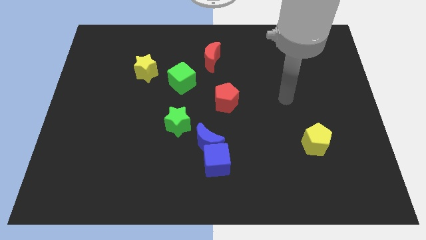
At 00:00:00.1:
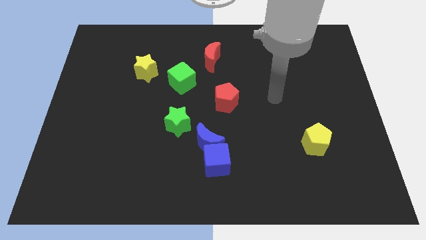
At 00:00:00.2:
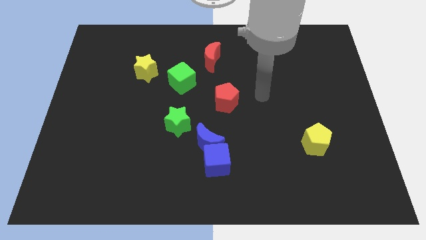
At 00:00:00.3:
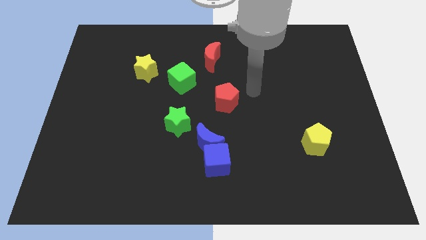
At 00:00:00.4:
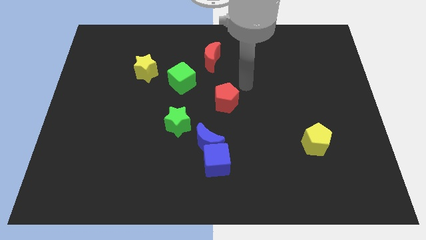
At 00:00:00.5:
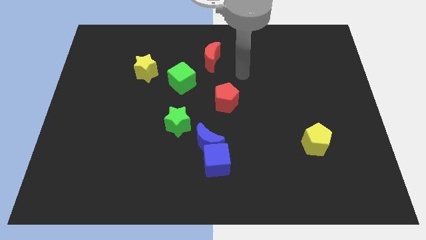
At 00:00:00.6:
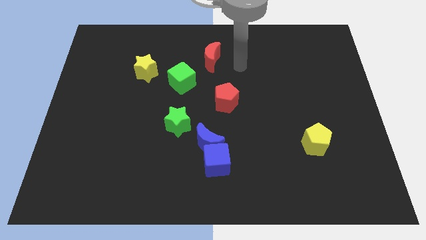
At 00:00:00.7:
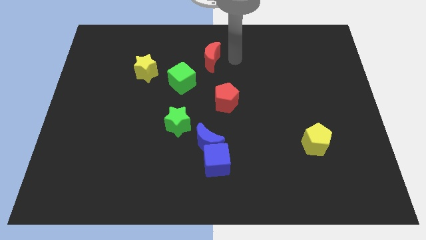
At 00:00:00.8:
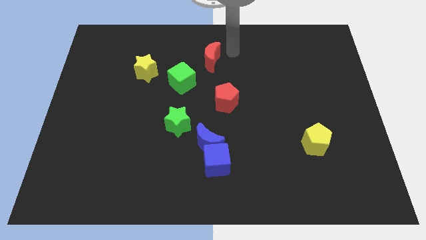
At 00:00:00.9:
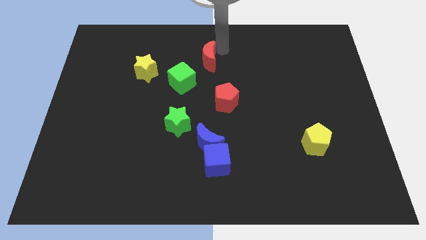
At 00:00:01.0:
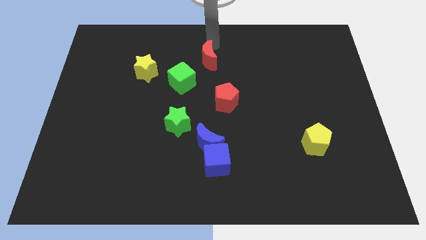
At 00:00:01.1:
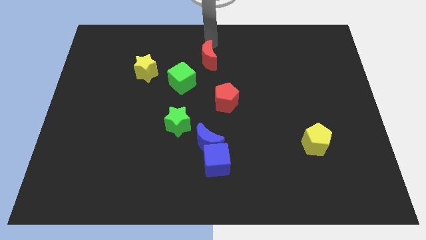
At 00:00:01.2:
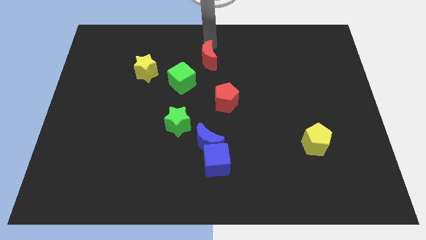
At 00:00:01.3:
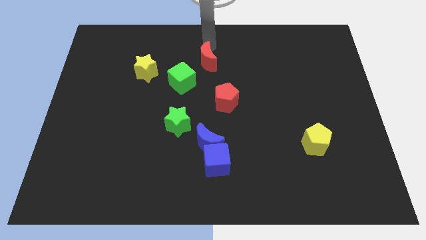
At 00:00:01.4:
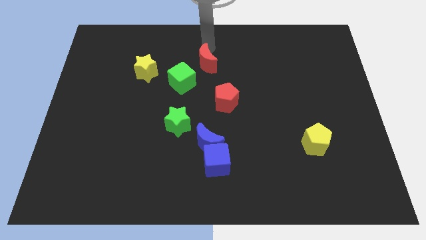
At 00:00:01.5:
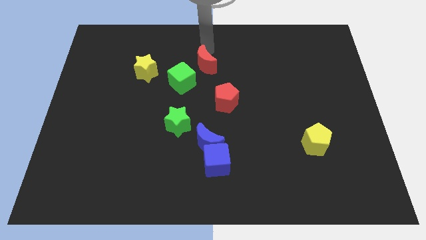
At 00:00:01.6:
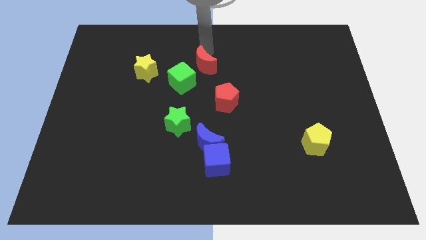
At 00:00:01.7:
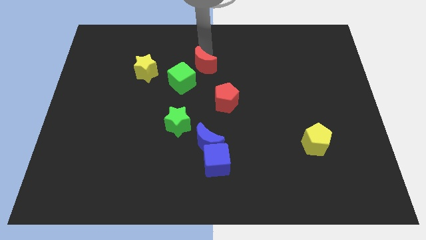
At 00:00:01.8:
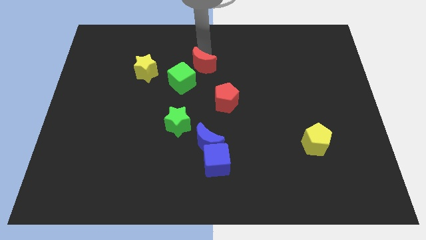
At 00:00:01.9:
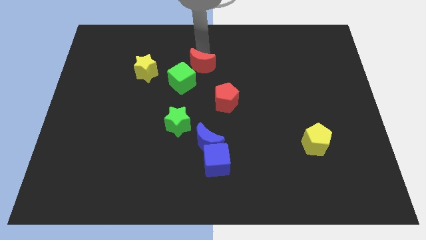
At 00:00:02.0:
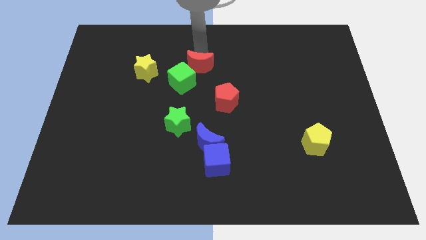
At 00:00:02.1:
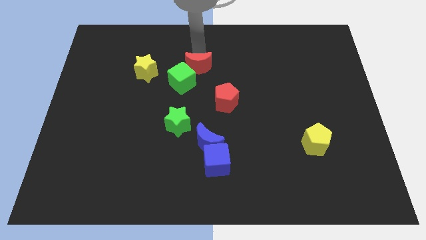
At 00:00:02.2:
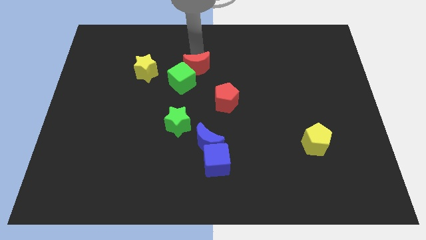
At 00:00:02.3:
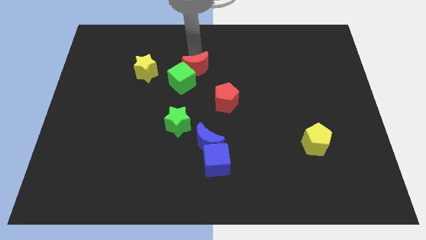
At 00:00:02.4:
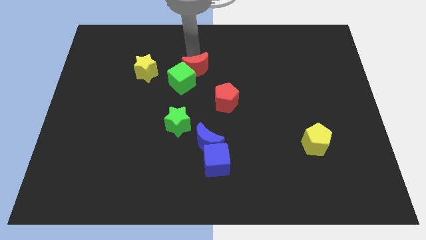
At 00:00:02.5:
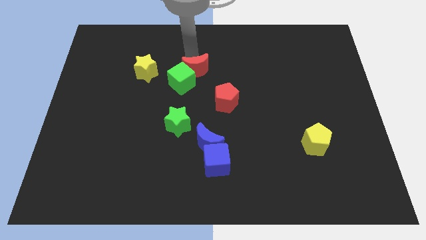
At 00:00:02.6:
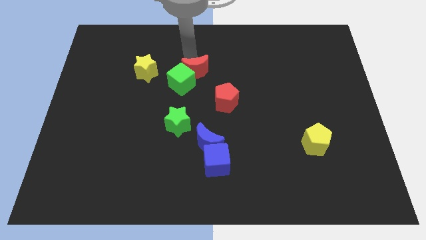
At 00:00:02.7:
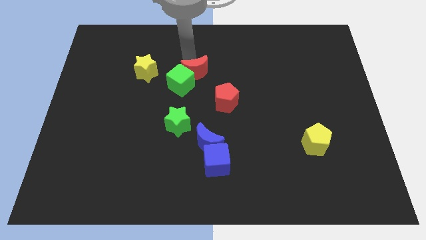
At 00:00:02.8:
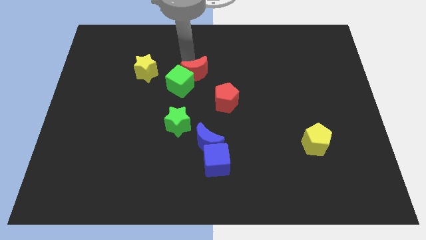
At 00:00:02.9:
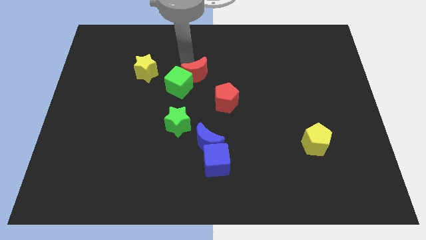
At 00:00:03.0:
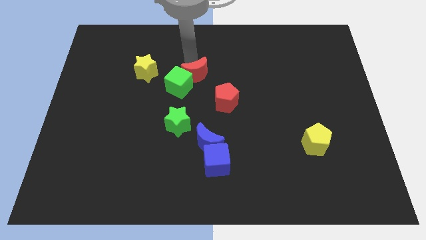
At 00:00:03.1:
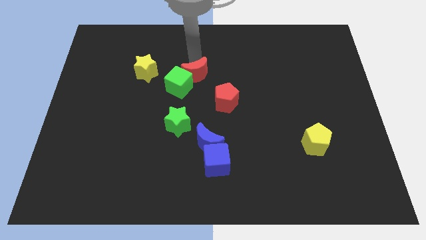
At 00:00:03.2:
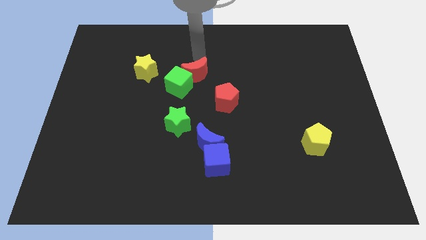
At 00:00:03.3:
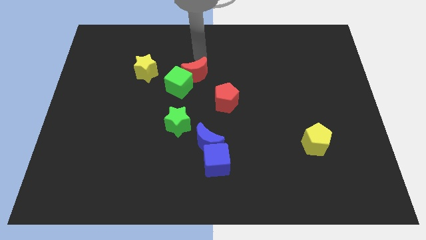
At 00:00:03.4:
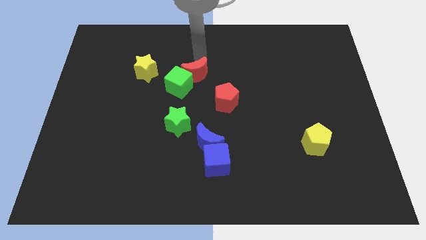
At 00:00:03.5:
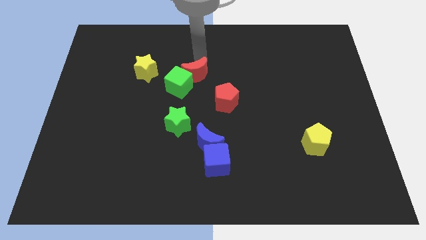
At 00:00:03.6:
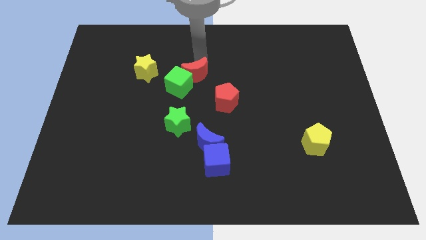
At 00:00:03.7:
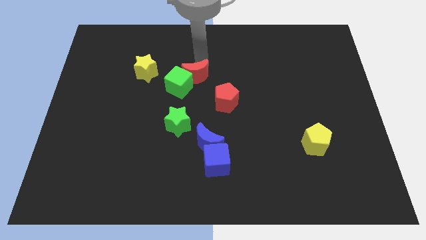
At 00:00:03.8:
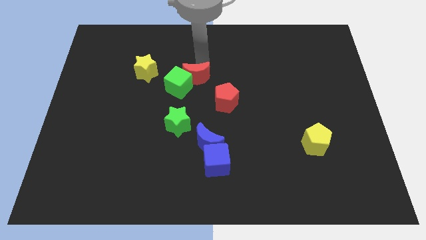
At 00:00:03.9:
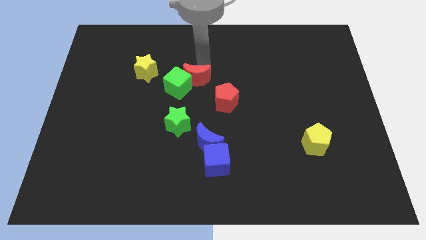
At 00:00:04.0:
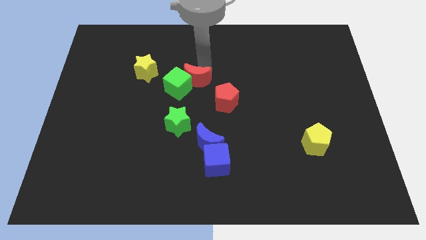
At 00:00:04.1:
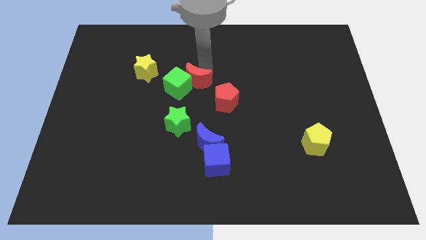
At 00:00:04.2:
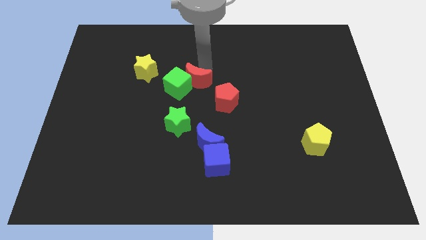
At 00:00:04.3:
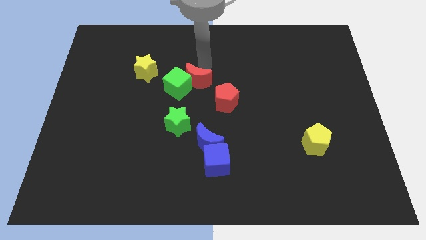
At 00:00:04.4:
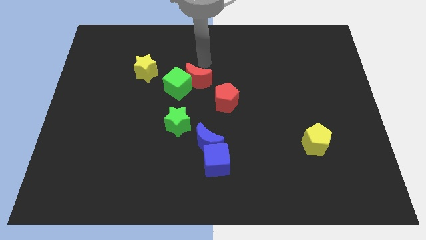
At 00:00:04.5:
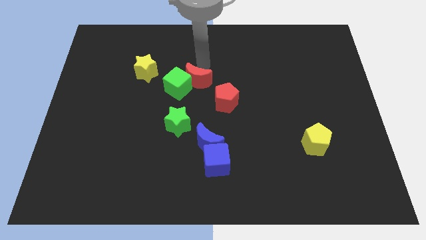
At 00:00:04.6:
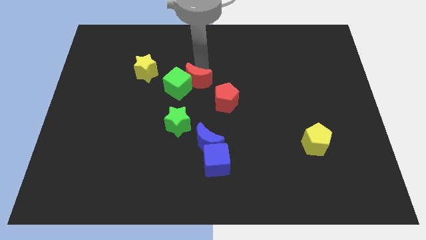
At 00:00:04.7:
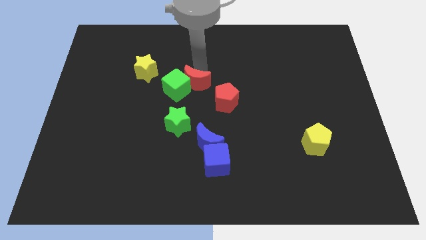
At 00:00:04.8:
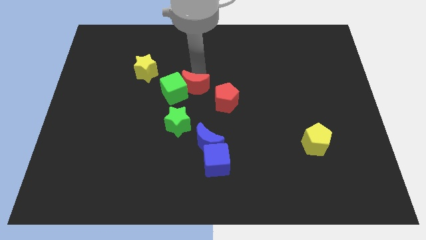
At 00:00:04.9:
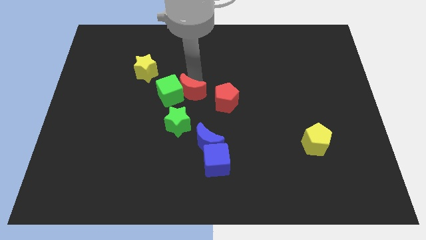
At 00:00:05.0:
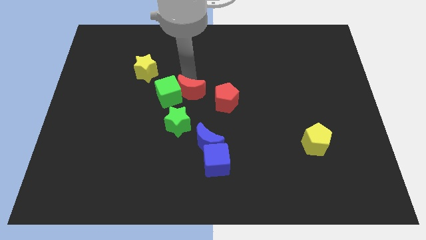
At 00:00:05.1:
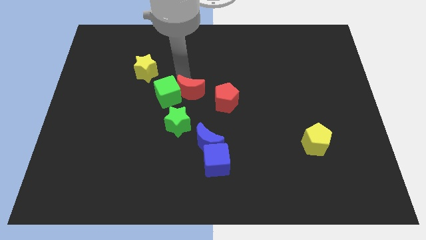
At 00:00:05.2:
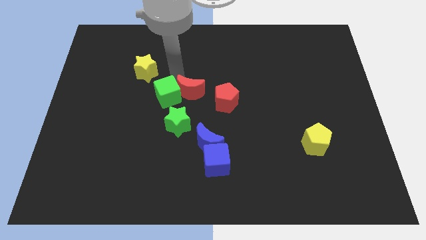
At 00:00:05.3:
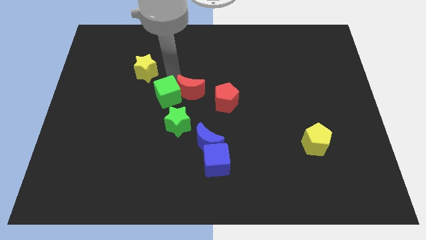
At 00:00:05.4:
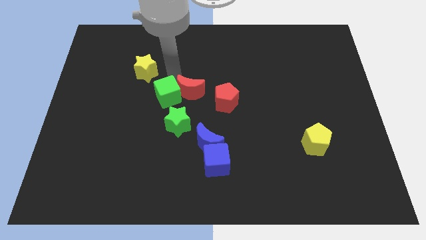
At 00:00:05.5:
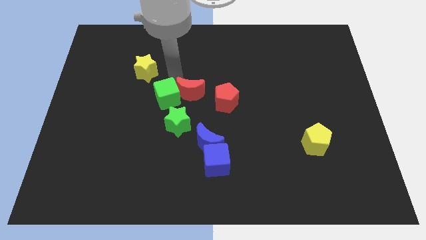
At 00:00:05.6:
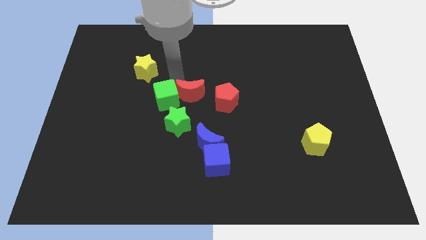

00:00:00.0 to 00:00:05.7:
put the red moon to the top side of the blue moon
